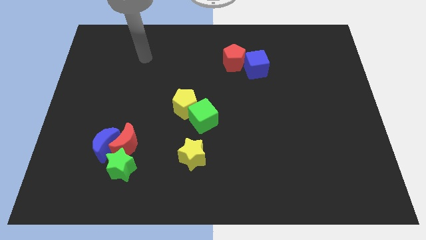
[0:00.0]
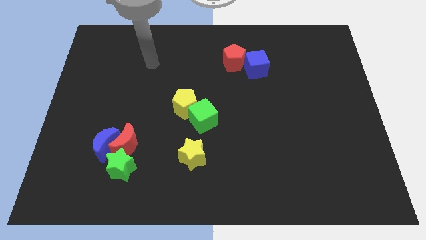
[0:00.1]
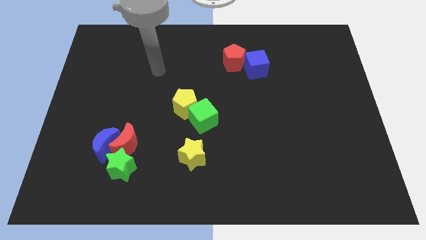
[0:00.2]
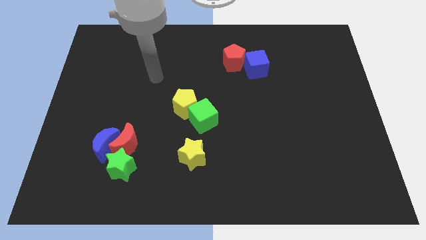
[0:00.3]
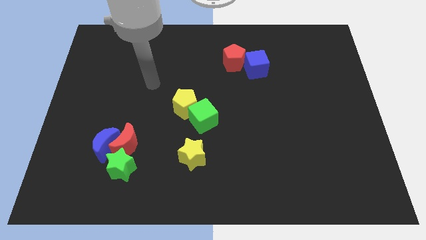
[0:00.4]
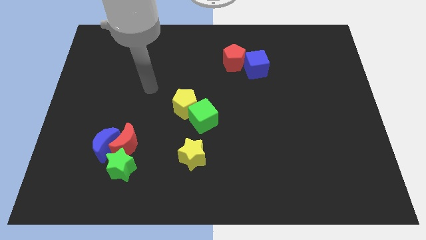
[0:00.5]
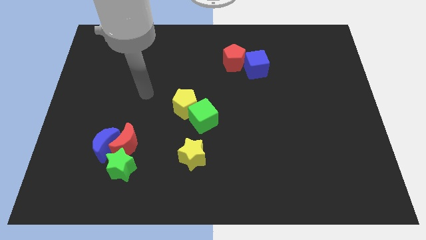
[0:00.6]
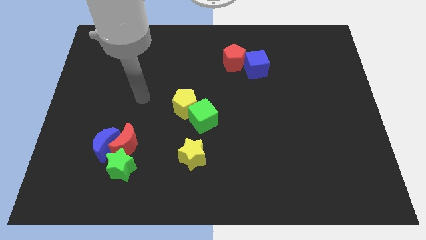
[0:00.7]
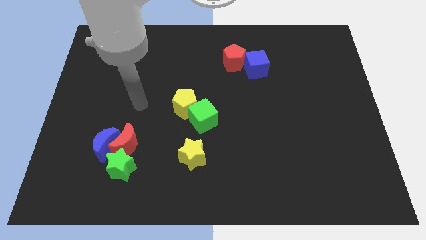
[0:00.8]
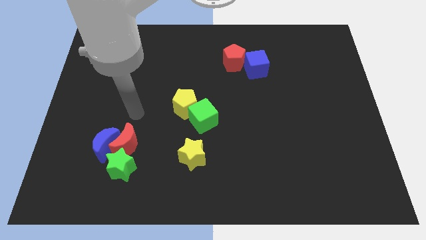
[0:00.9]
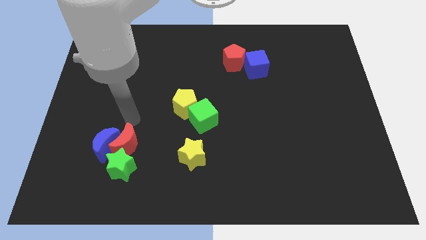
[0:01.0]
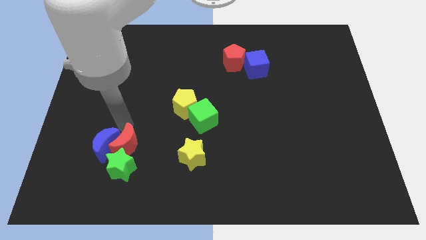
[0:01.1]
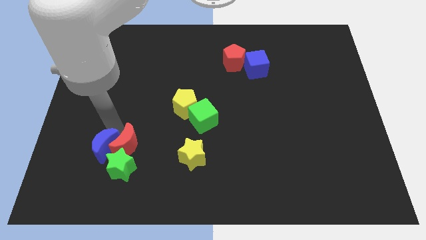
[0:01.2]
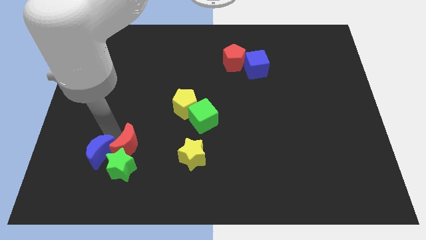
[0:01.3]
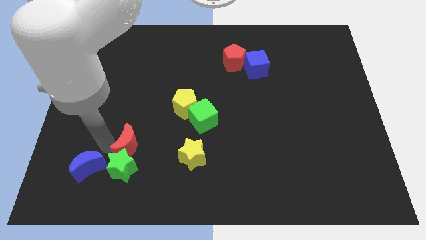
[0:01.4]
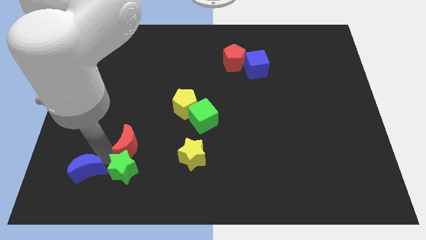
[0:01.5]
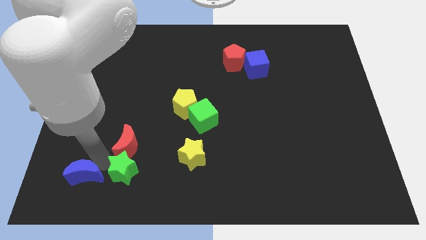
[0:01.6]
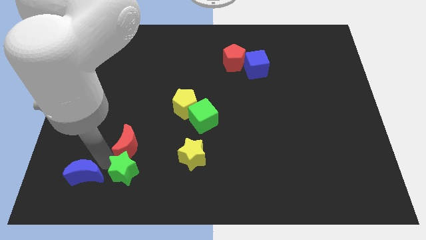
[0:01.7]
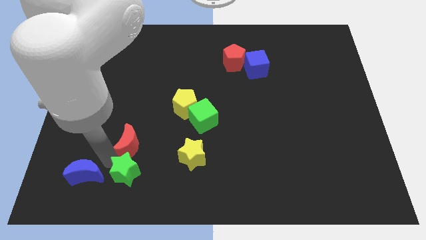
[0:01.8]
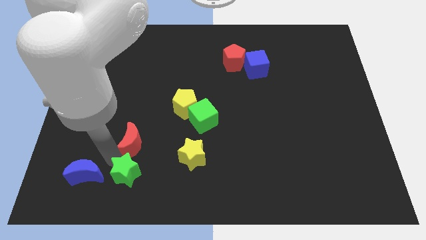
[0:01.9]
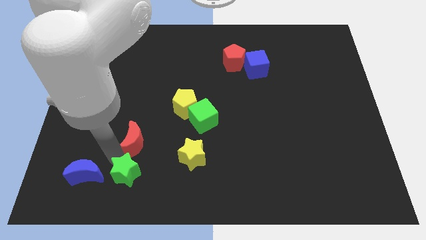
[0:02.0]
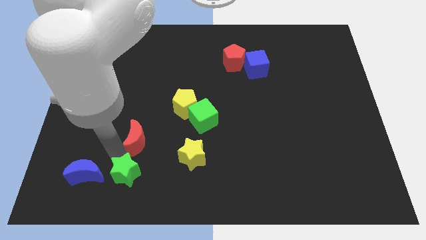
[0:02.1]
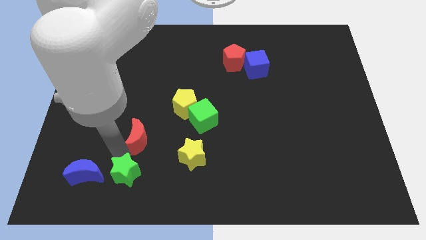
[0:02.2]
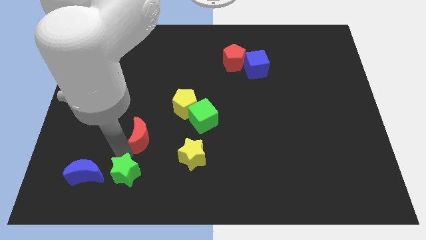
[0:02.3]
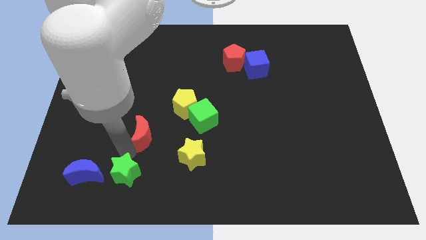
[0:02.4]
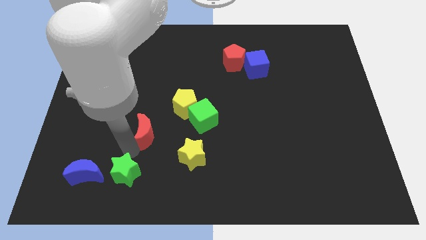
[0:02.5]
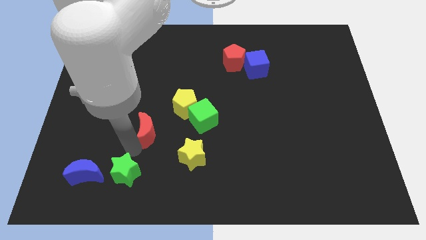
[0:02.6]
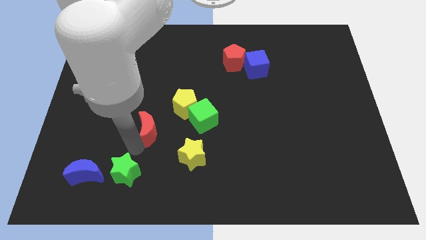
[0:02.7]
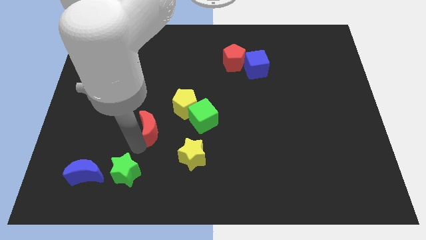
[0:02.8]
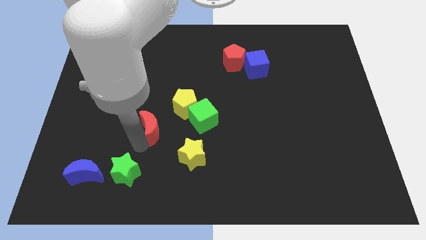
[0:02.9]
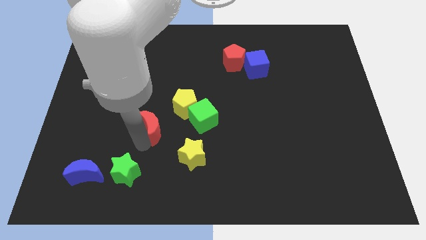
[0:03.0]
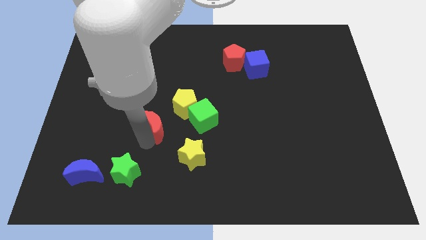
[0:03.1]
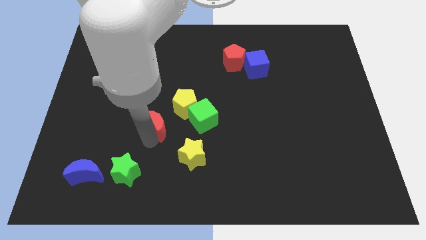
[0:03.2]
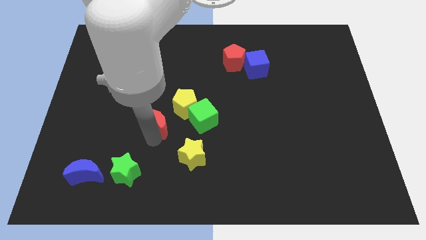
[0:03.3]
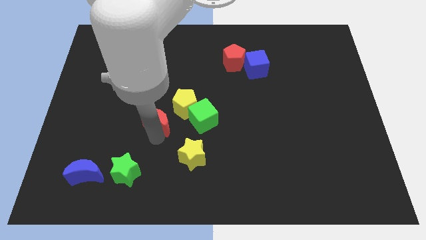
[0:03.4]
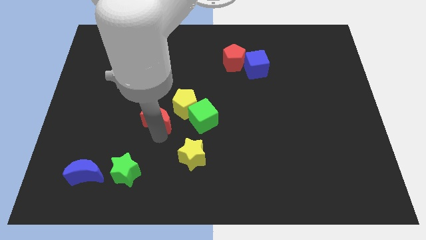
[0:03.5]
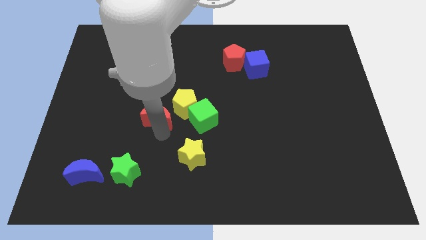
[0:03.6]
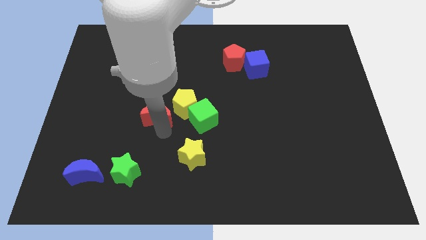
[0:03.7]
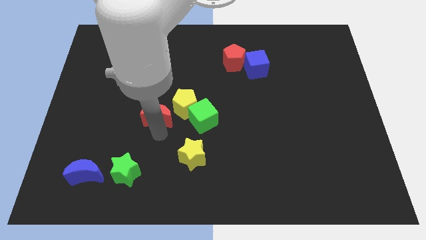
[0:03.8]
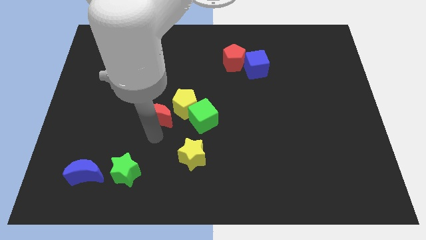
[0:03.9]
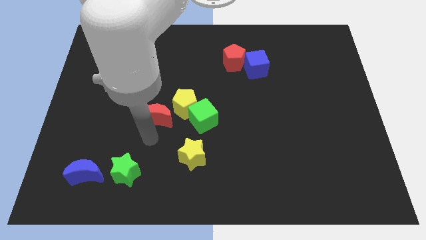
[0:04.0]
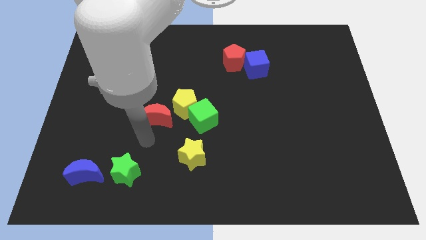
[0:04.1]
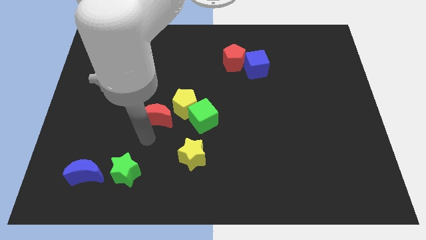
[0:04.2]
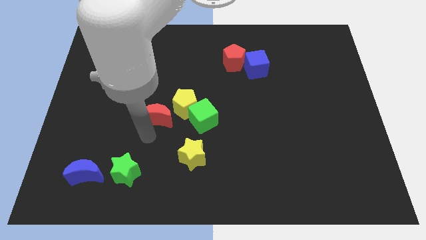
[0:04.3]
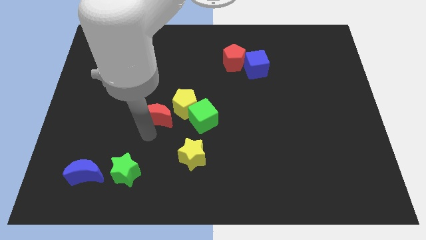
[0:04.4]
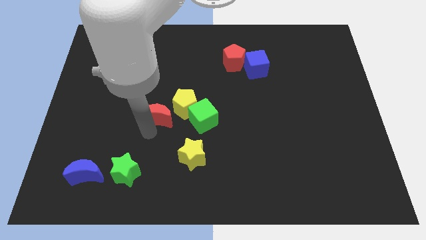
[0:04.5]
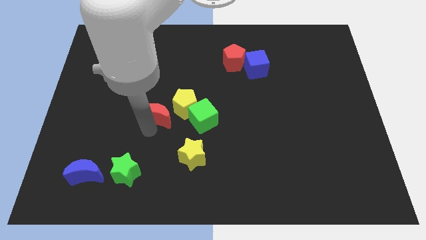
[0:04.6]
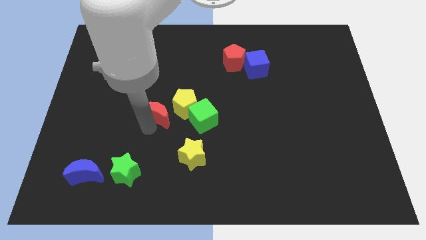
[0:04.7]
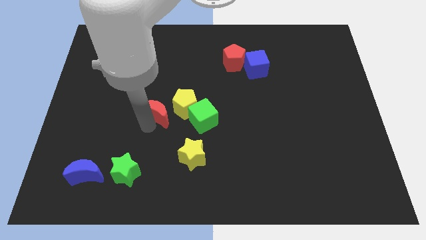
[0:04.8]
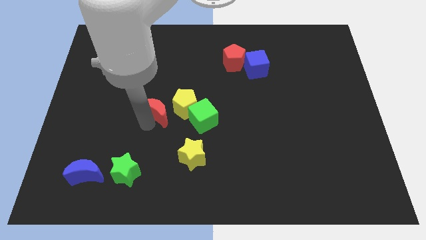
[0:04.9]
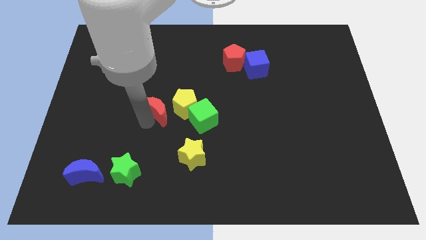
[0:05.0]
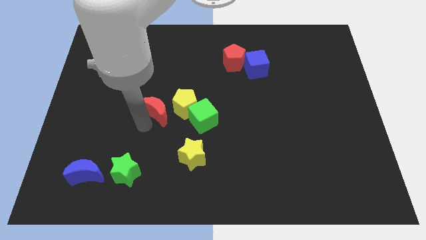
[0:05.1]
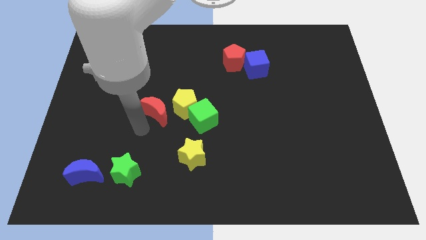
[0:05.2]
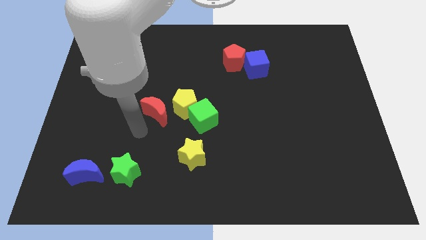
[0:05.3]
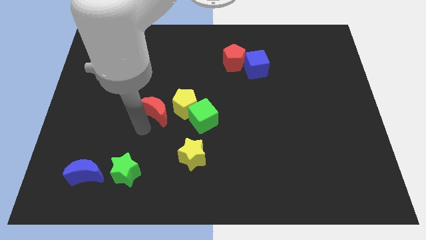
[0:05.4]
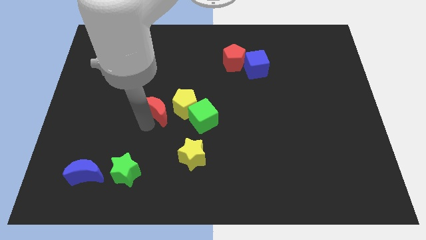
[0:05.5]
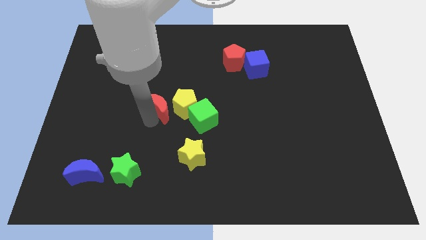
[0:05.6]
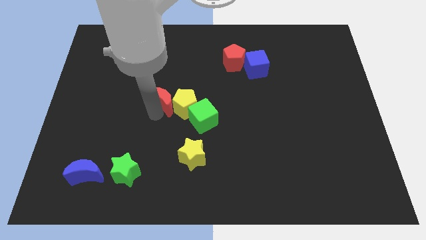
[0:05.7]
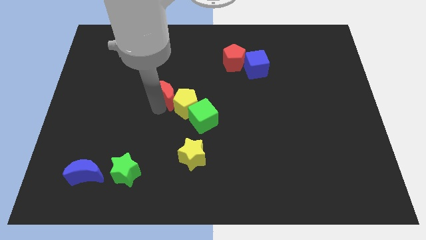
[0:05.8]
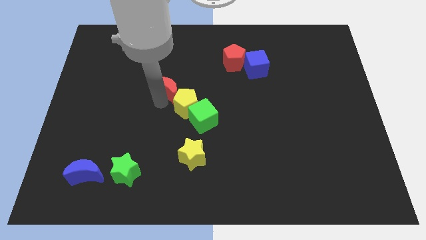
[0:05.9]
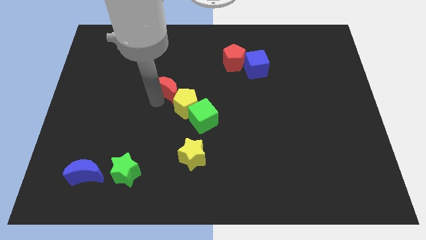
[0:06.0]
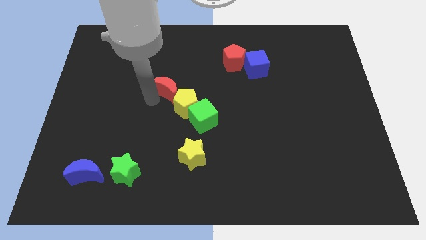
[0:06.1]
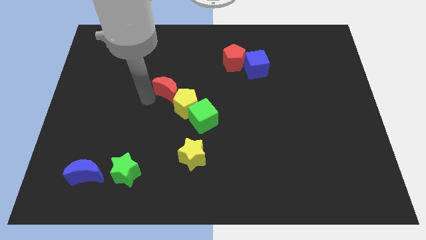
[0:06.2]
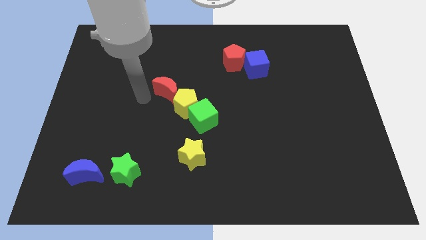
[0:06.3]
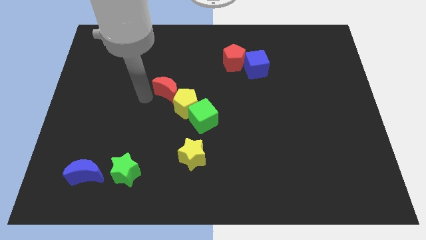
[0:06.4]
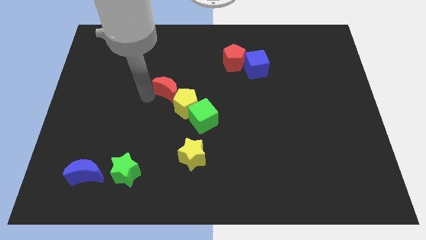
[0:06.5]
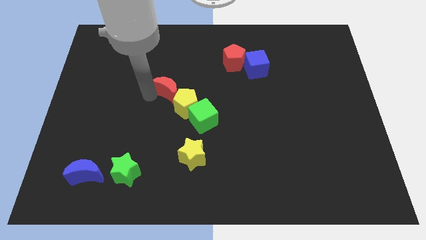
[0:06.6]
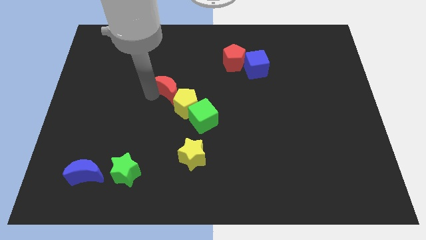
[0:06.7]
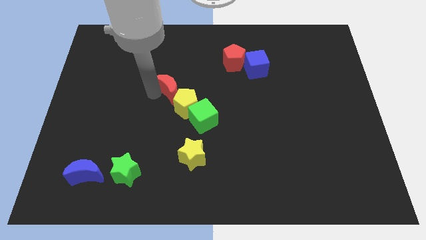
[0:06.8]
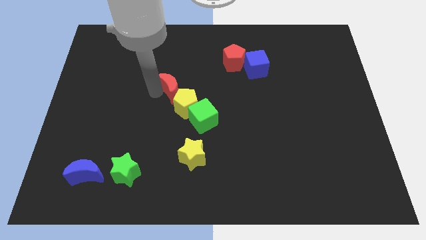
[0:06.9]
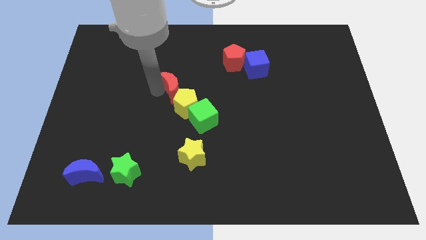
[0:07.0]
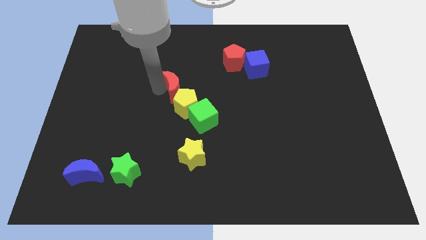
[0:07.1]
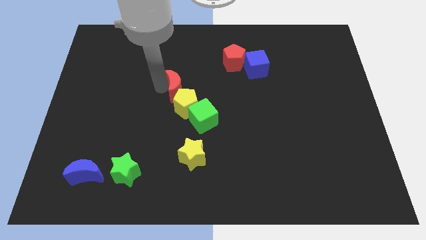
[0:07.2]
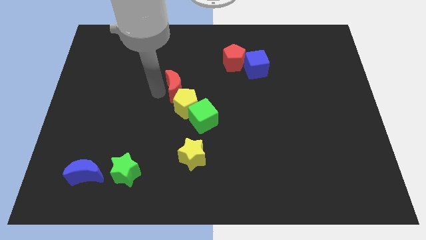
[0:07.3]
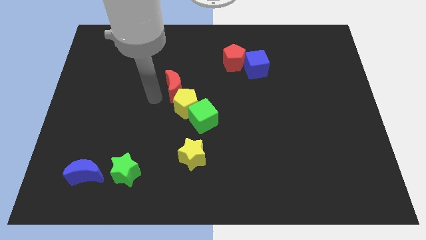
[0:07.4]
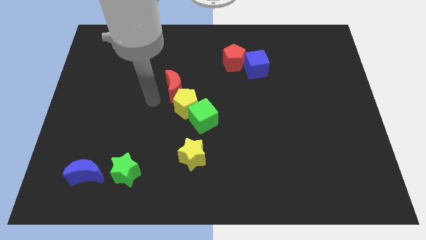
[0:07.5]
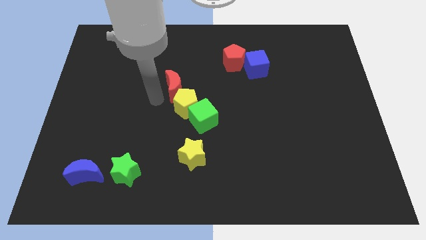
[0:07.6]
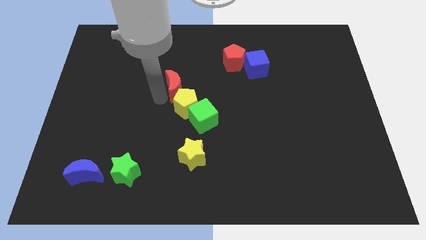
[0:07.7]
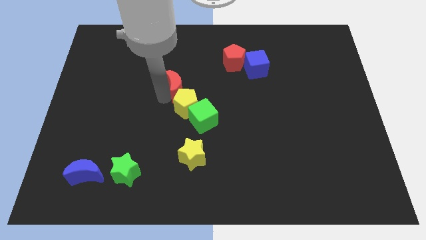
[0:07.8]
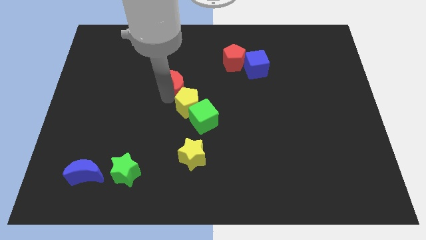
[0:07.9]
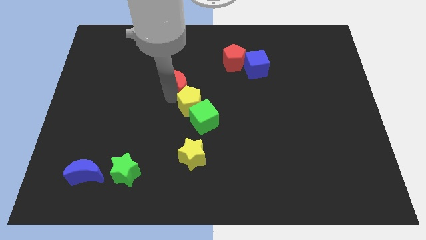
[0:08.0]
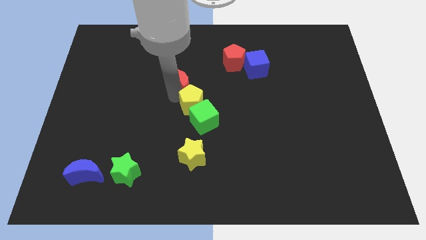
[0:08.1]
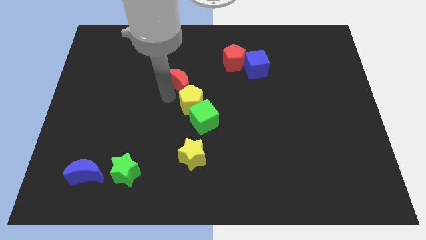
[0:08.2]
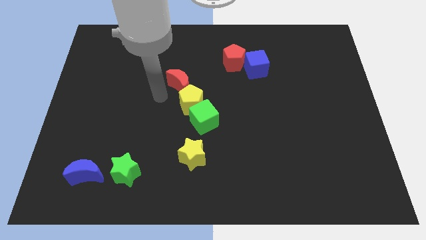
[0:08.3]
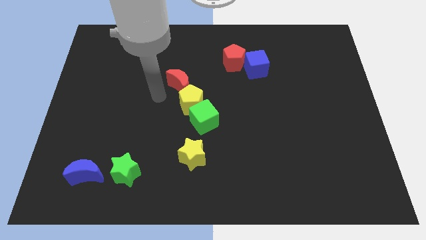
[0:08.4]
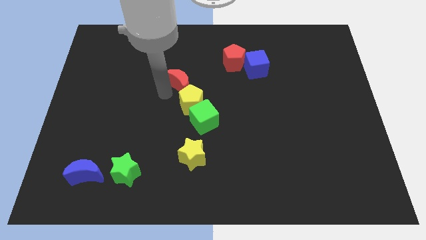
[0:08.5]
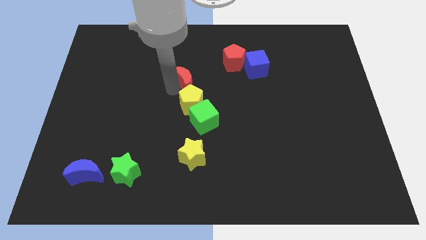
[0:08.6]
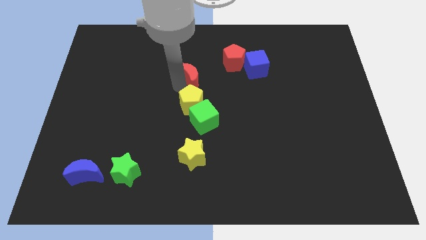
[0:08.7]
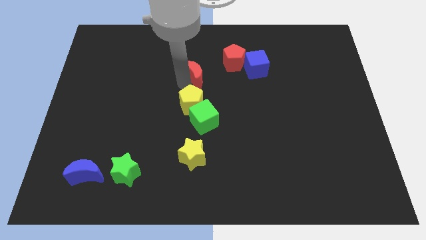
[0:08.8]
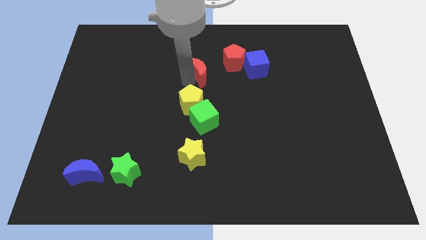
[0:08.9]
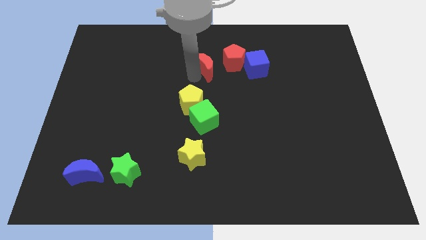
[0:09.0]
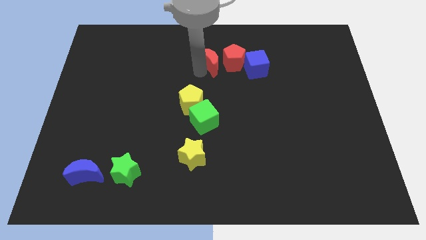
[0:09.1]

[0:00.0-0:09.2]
put the red moon next to the red pentagon
